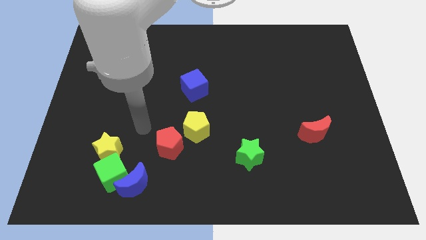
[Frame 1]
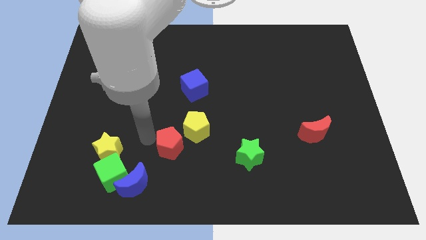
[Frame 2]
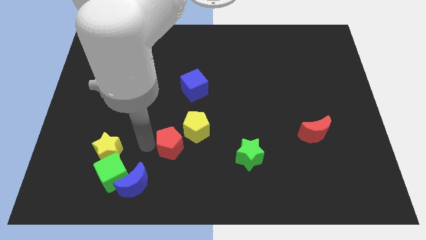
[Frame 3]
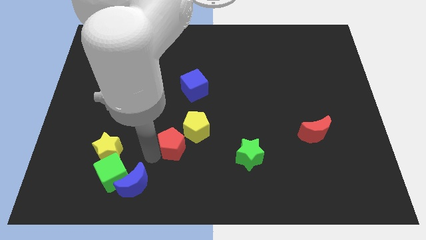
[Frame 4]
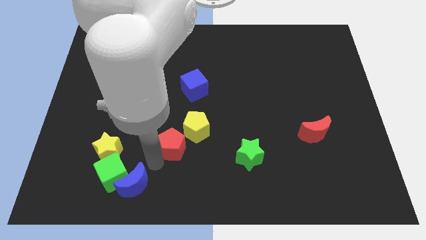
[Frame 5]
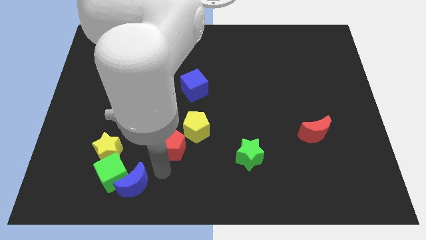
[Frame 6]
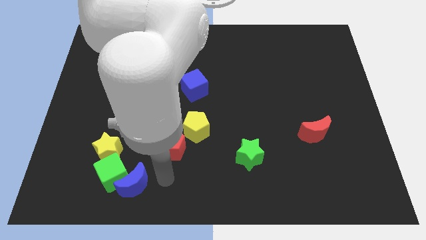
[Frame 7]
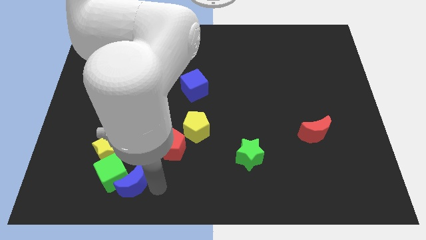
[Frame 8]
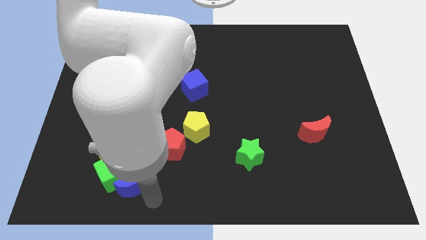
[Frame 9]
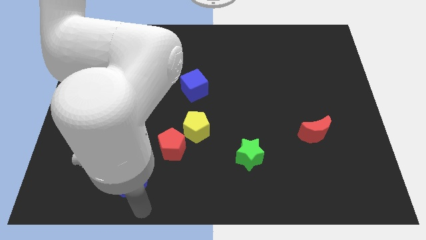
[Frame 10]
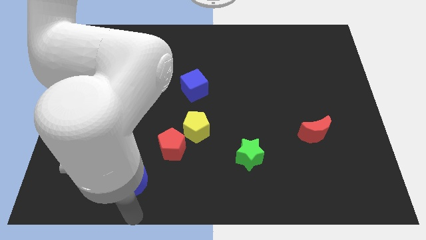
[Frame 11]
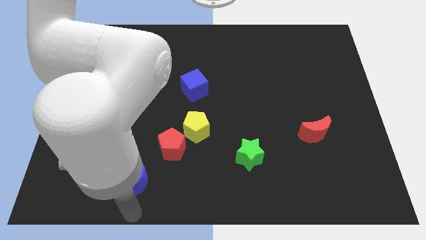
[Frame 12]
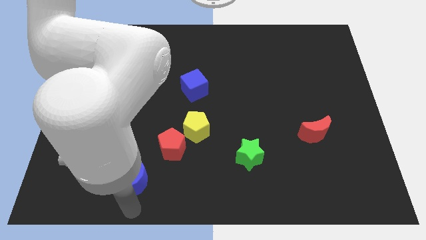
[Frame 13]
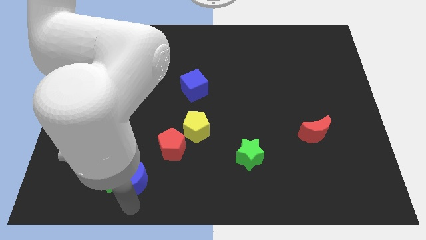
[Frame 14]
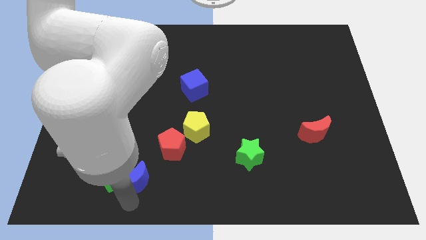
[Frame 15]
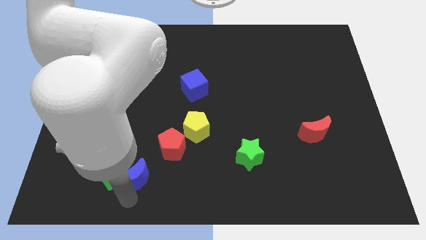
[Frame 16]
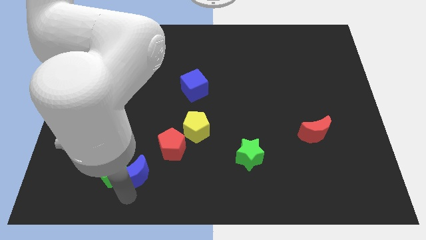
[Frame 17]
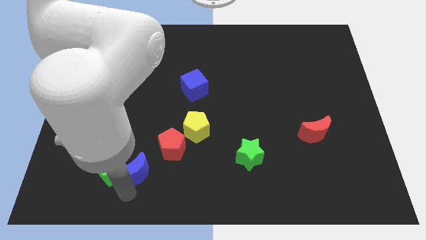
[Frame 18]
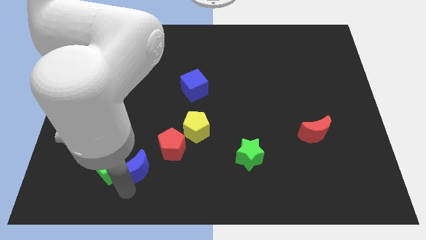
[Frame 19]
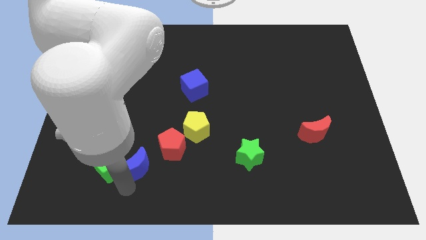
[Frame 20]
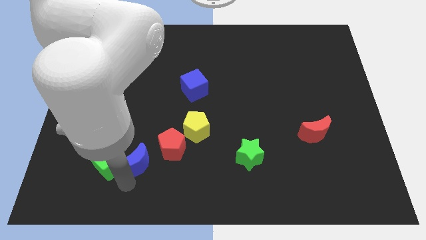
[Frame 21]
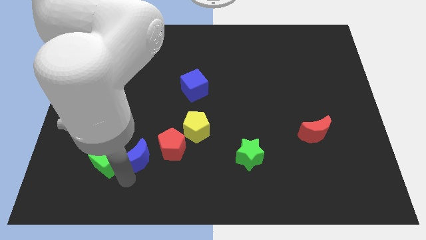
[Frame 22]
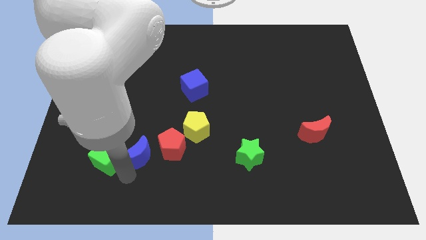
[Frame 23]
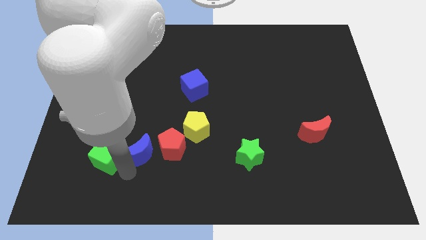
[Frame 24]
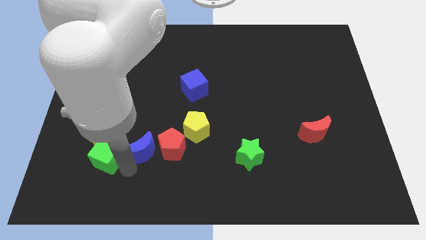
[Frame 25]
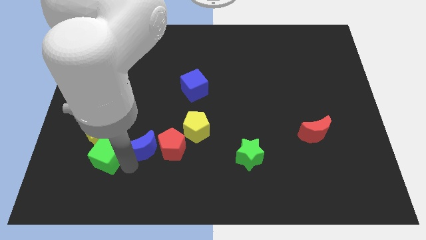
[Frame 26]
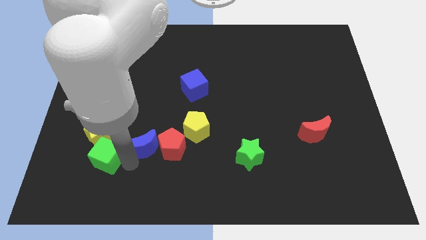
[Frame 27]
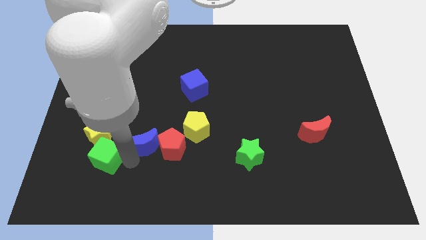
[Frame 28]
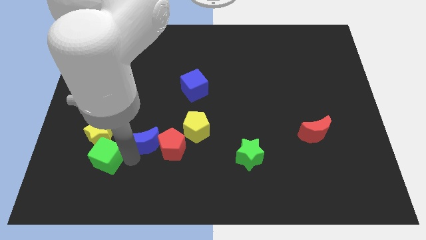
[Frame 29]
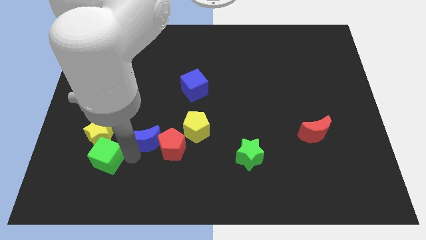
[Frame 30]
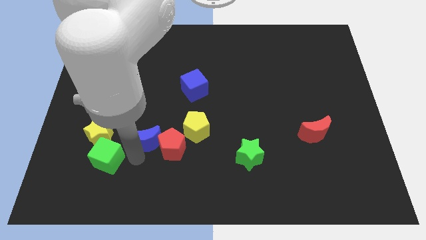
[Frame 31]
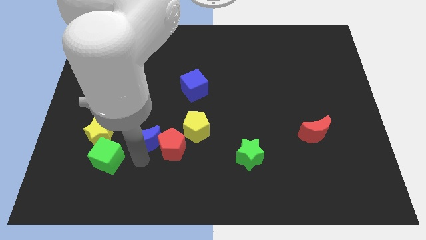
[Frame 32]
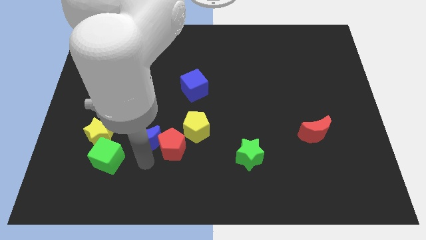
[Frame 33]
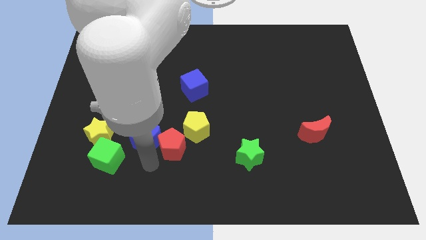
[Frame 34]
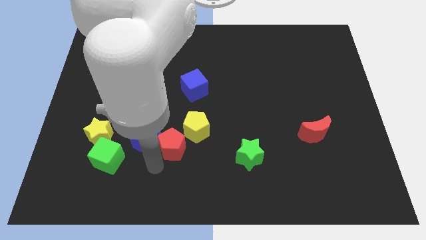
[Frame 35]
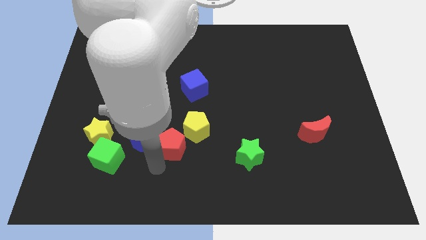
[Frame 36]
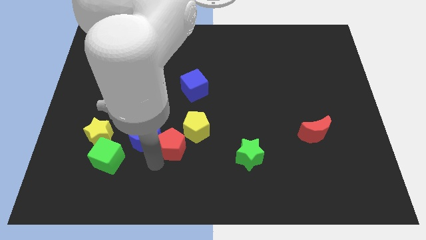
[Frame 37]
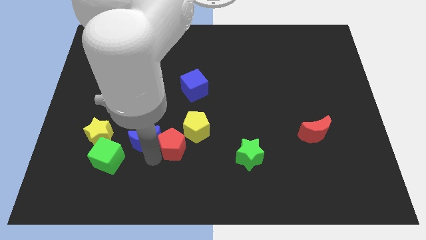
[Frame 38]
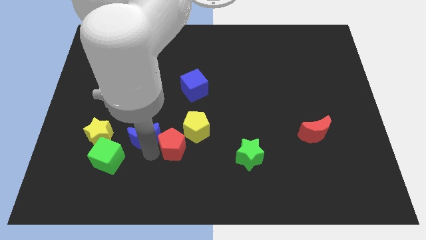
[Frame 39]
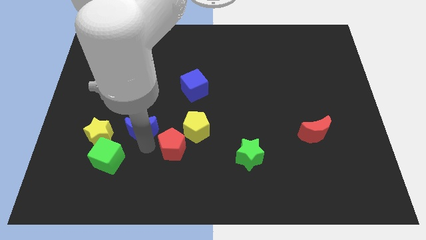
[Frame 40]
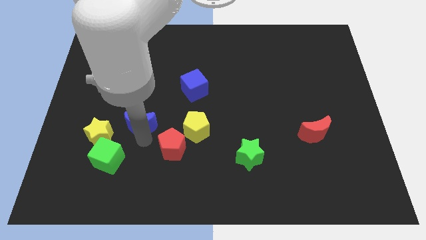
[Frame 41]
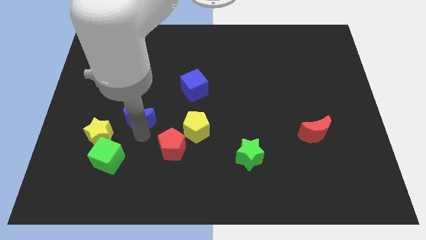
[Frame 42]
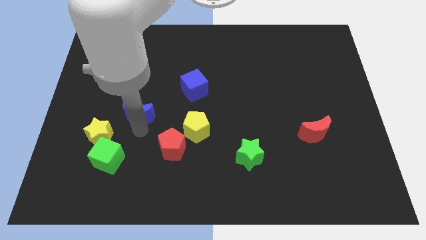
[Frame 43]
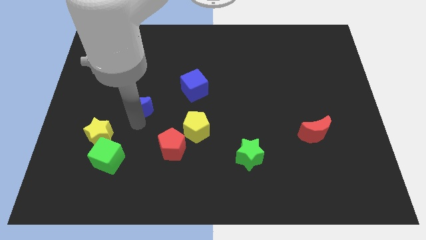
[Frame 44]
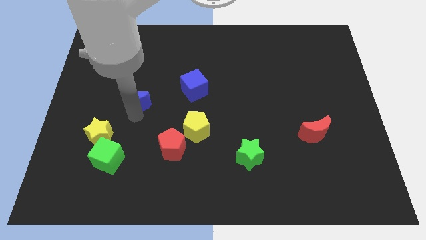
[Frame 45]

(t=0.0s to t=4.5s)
push the blue moon upwards

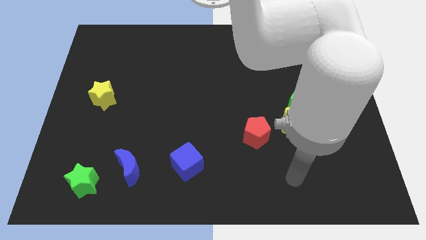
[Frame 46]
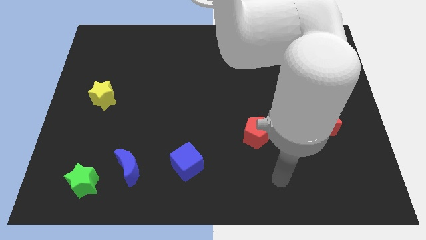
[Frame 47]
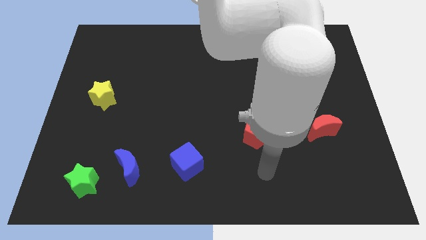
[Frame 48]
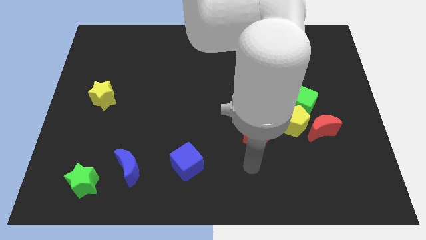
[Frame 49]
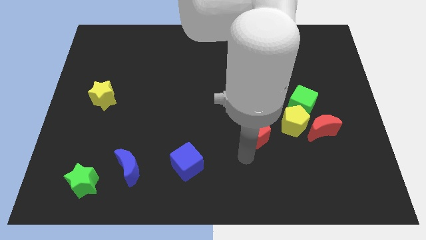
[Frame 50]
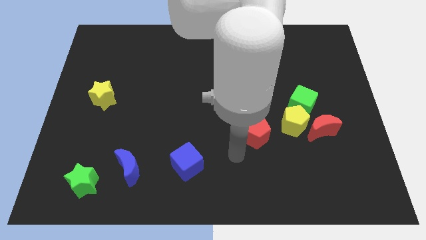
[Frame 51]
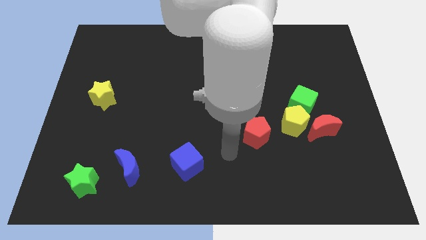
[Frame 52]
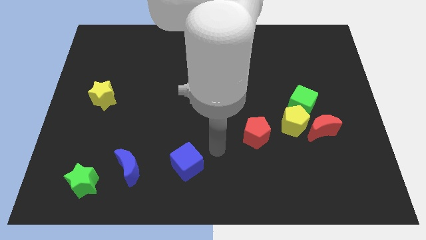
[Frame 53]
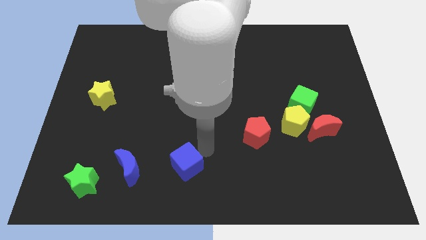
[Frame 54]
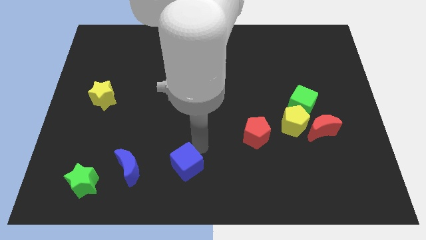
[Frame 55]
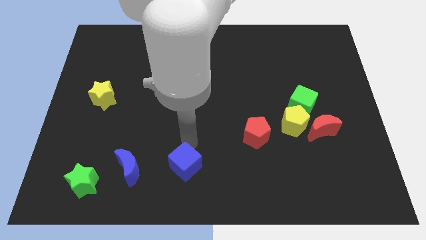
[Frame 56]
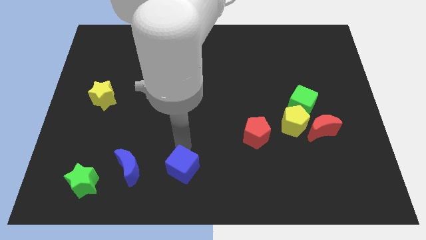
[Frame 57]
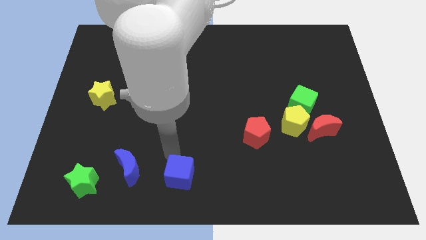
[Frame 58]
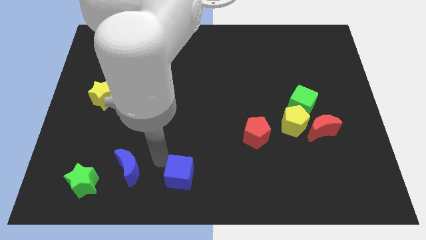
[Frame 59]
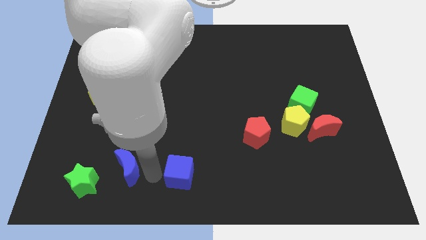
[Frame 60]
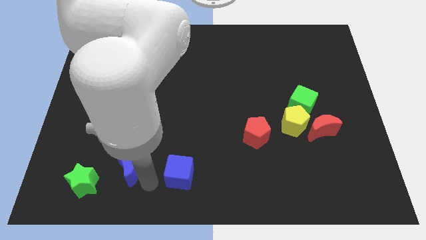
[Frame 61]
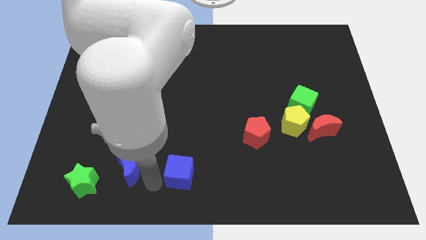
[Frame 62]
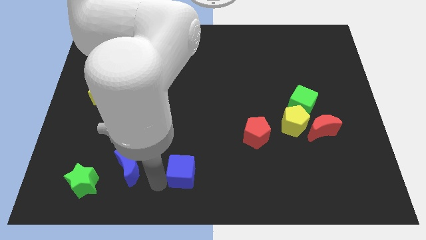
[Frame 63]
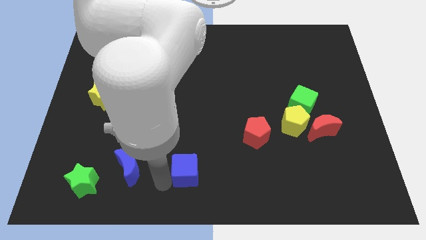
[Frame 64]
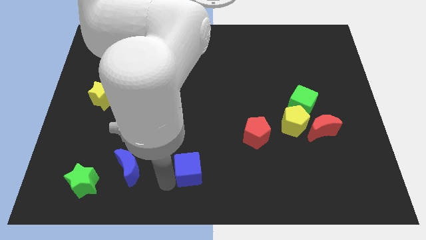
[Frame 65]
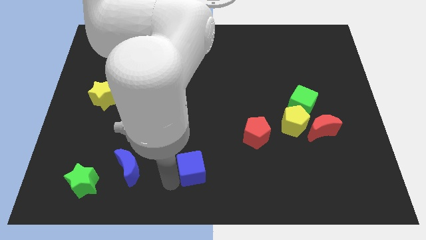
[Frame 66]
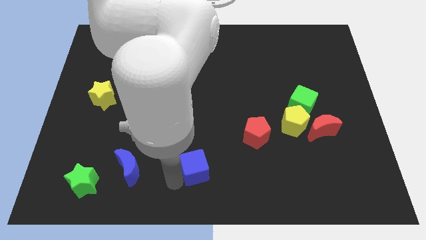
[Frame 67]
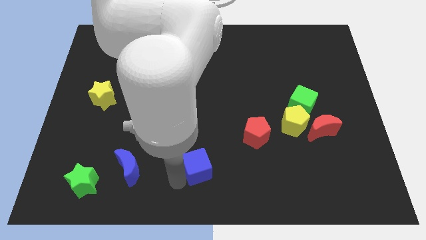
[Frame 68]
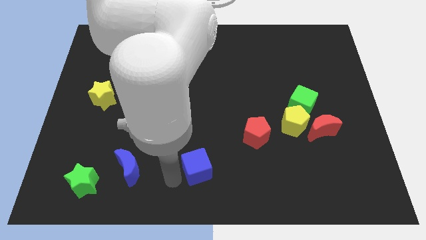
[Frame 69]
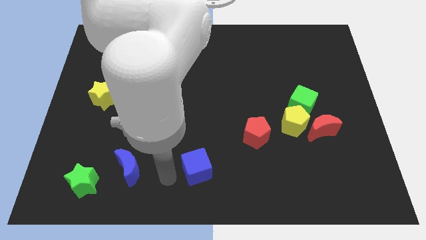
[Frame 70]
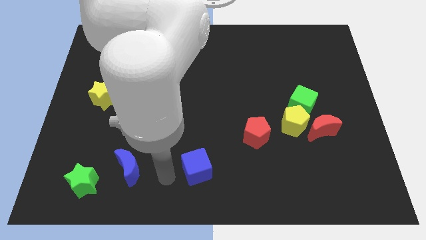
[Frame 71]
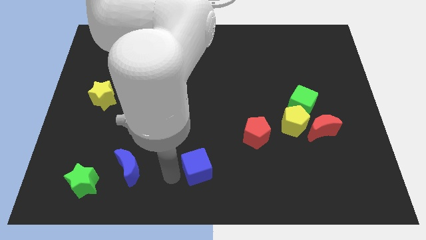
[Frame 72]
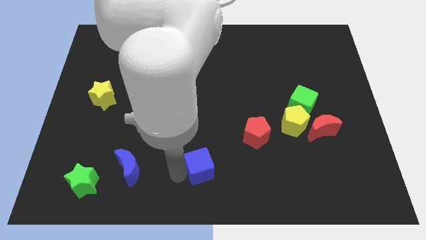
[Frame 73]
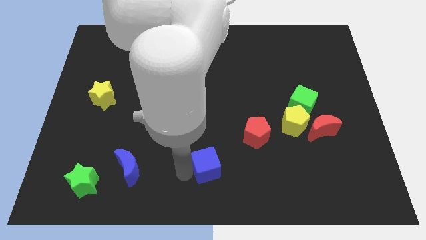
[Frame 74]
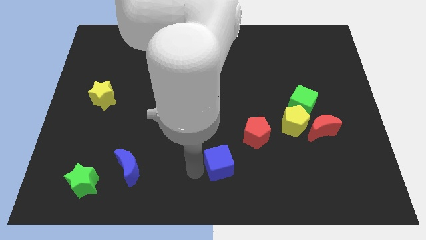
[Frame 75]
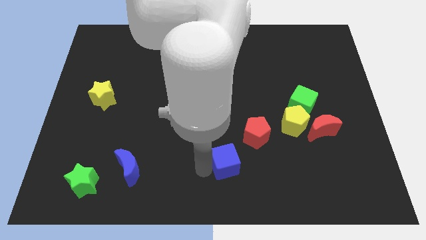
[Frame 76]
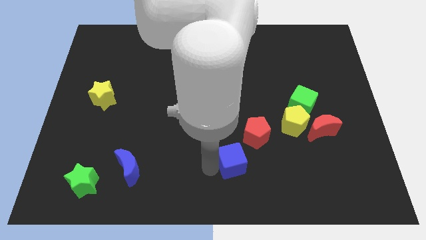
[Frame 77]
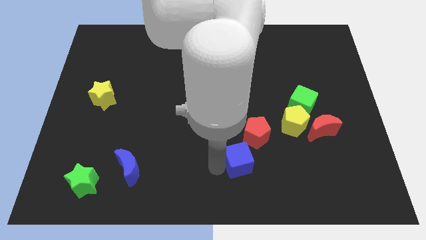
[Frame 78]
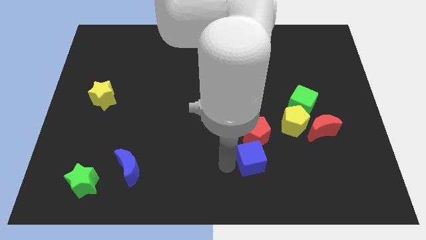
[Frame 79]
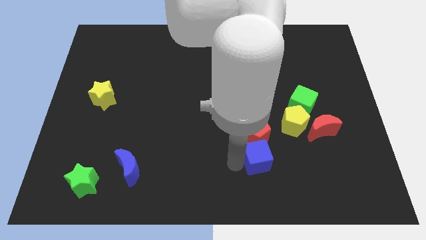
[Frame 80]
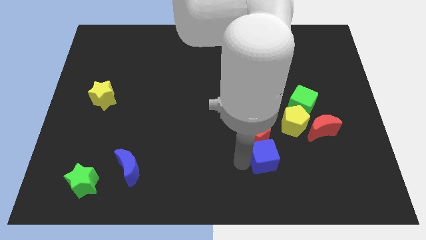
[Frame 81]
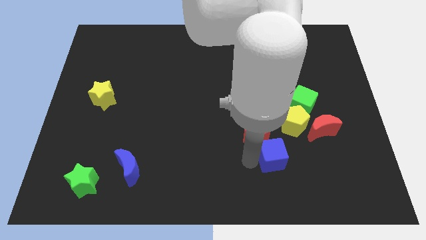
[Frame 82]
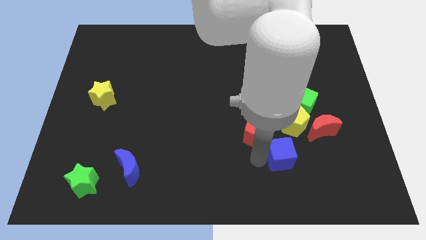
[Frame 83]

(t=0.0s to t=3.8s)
slide the blue cube to the right
